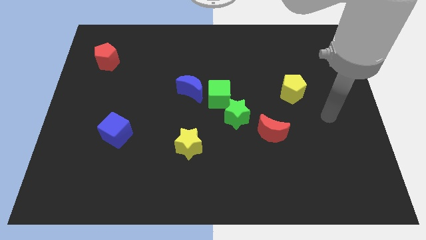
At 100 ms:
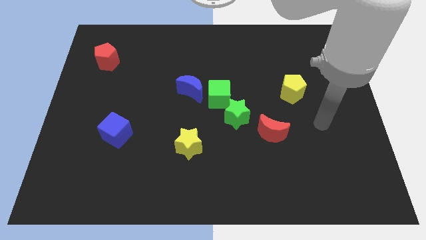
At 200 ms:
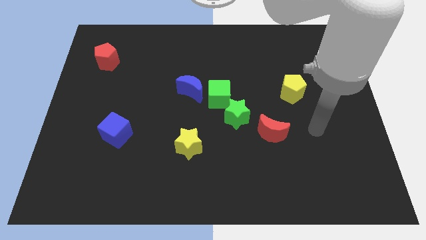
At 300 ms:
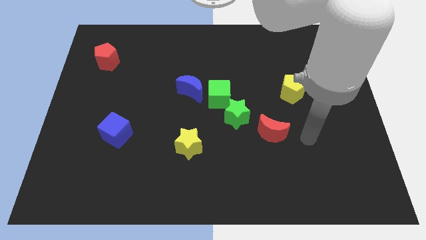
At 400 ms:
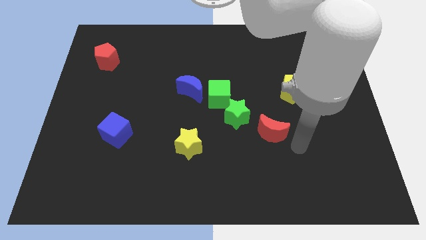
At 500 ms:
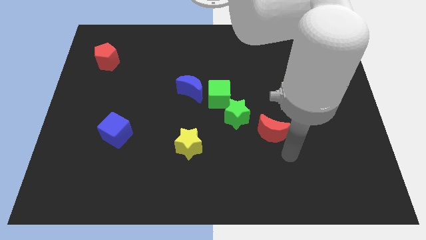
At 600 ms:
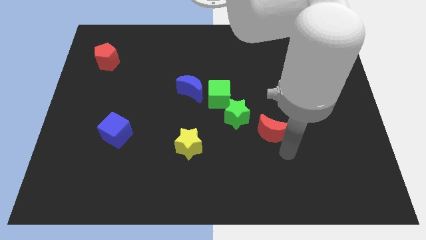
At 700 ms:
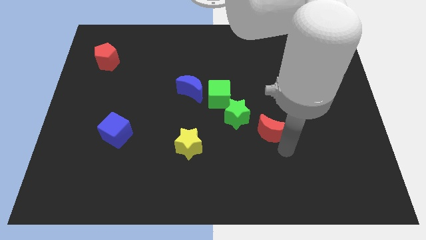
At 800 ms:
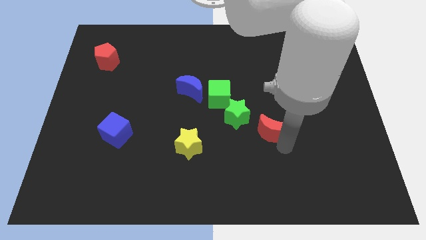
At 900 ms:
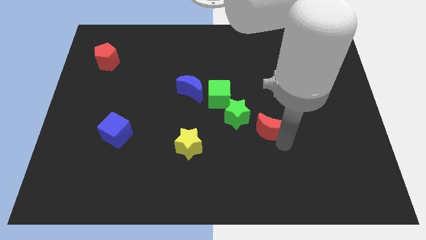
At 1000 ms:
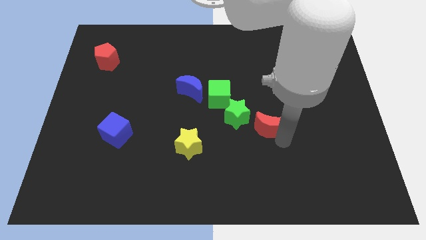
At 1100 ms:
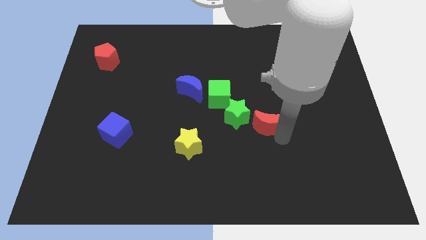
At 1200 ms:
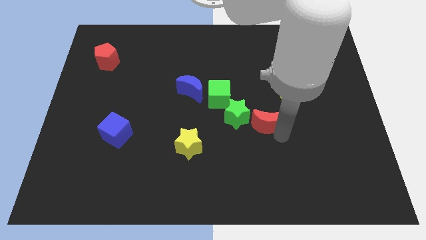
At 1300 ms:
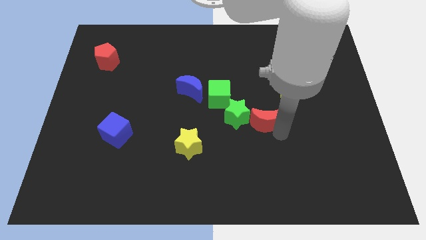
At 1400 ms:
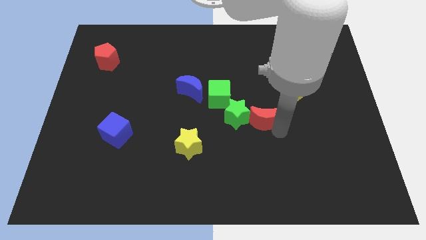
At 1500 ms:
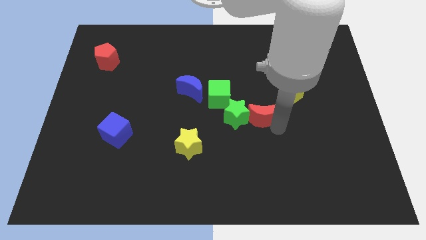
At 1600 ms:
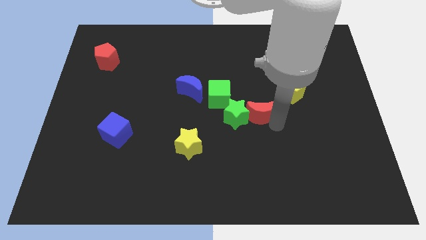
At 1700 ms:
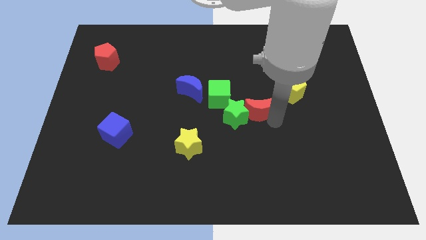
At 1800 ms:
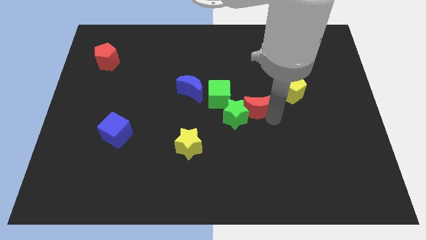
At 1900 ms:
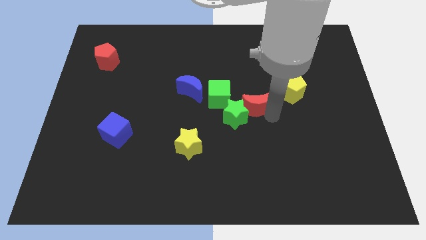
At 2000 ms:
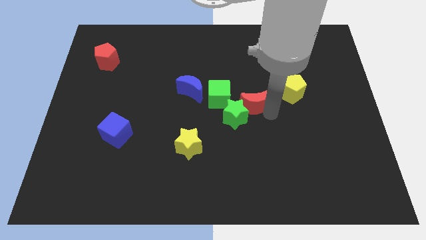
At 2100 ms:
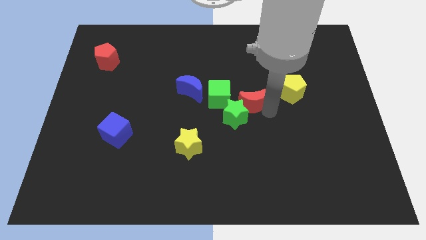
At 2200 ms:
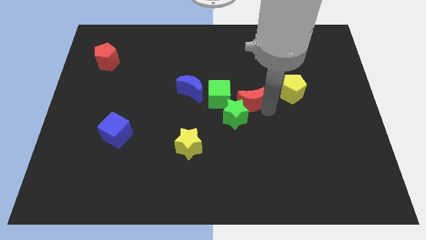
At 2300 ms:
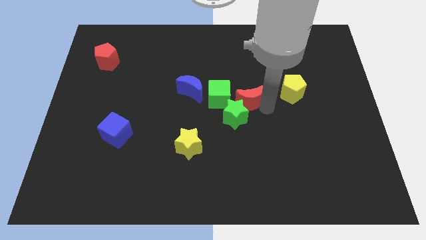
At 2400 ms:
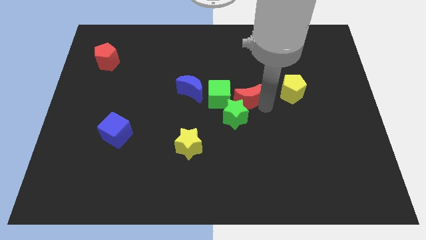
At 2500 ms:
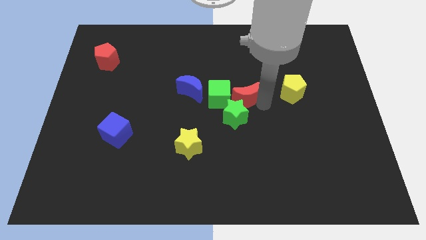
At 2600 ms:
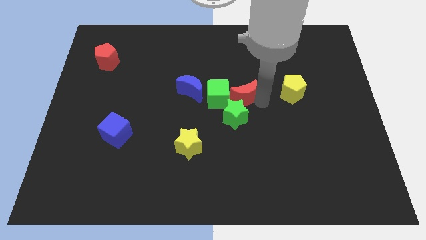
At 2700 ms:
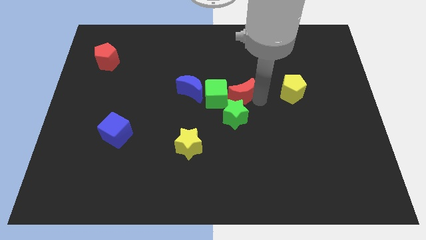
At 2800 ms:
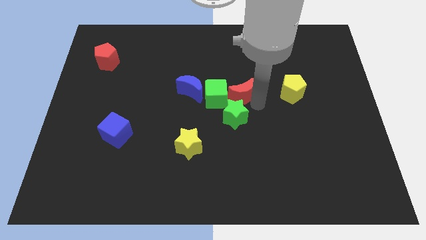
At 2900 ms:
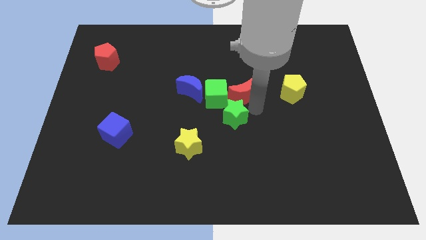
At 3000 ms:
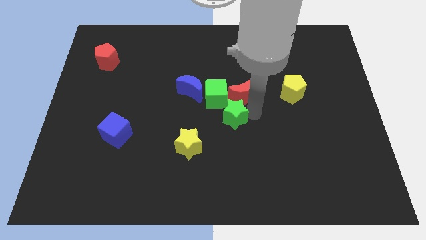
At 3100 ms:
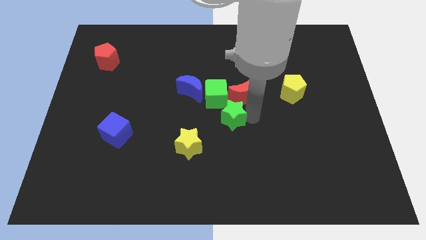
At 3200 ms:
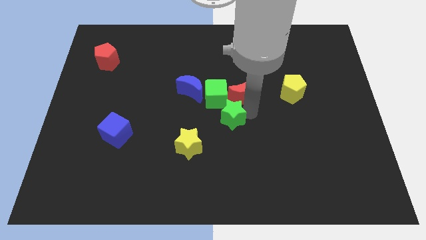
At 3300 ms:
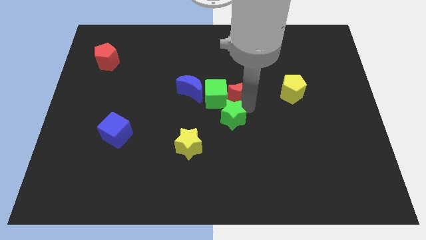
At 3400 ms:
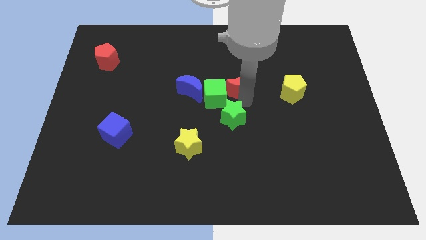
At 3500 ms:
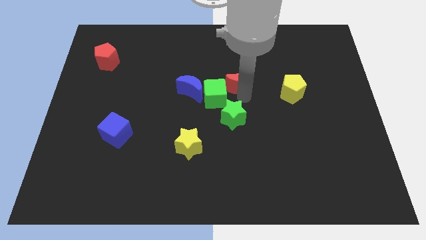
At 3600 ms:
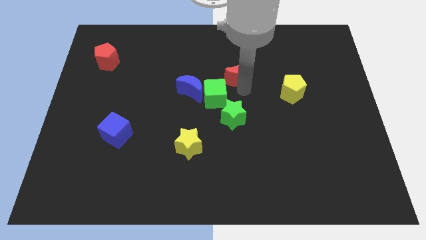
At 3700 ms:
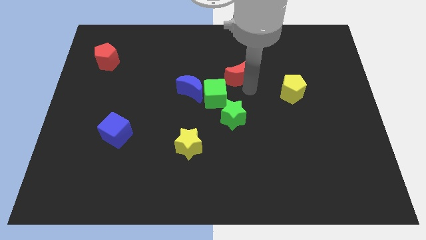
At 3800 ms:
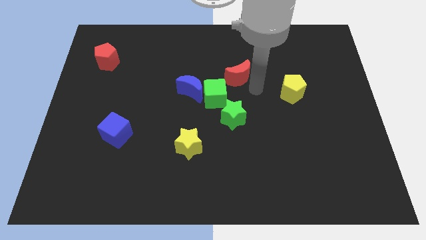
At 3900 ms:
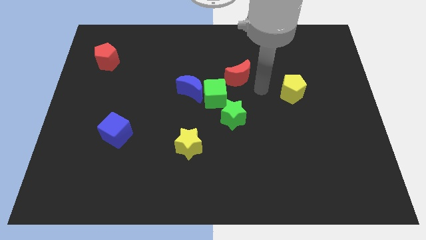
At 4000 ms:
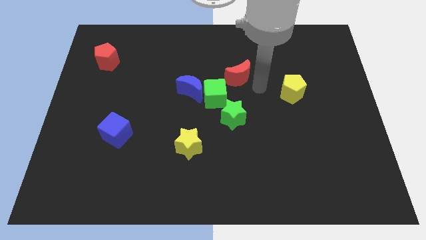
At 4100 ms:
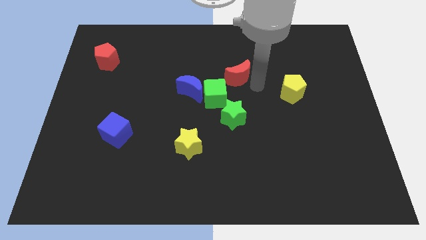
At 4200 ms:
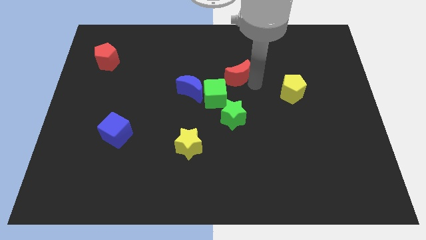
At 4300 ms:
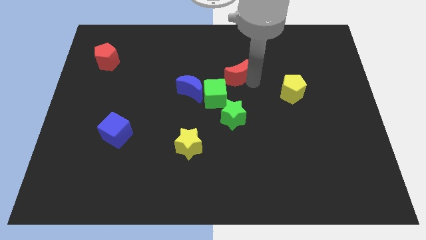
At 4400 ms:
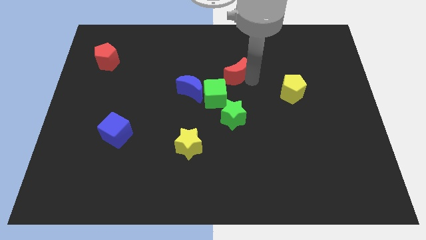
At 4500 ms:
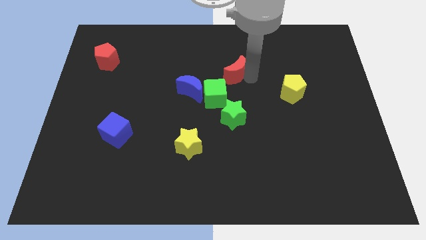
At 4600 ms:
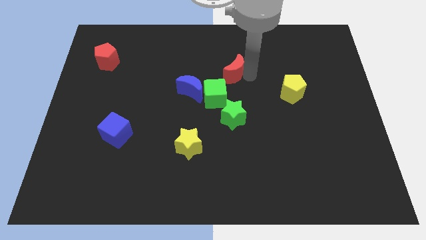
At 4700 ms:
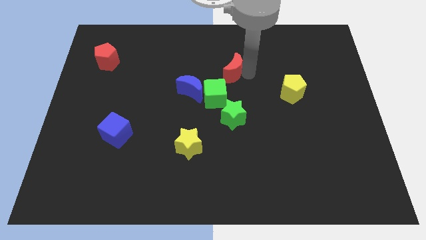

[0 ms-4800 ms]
push the red moon above the green cube

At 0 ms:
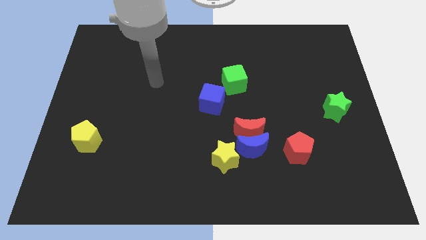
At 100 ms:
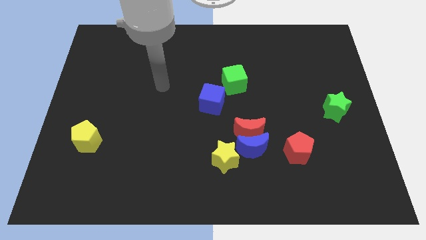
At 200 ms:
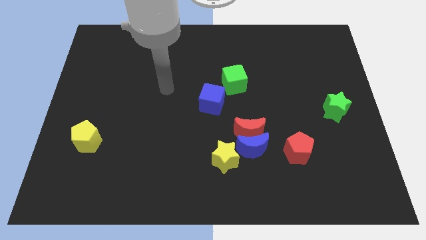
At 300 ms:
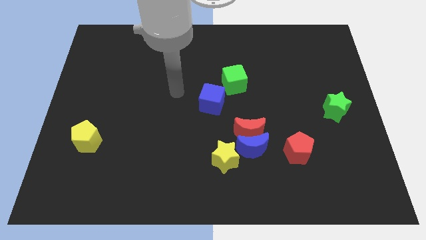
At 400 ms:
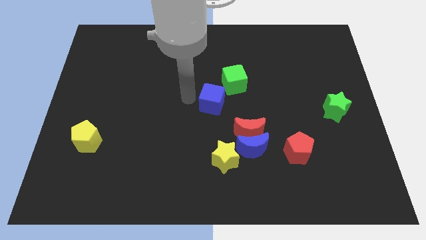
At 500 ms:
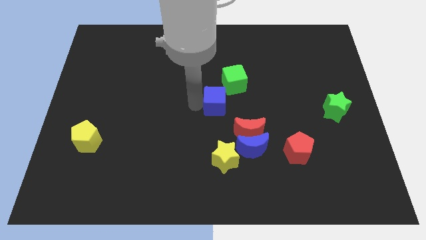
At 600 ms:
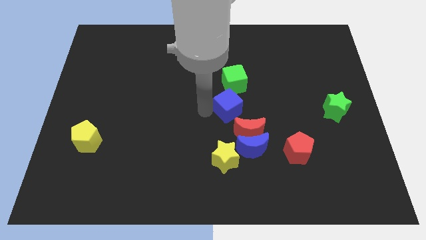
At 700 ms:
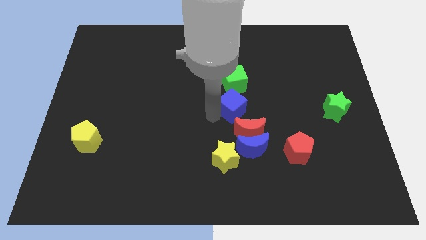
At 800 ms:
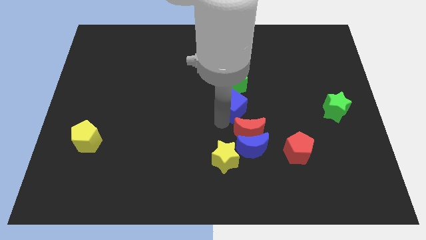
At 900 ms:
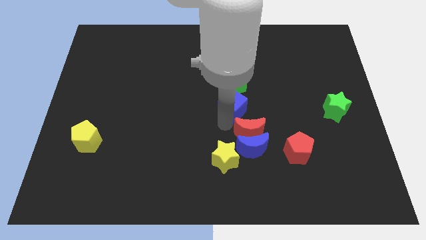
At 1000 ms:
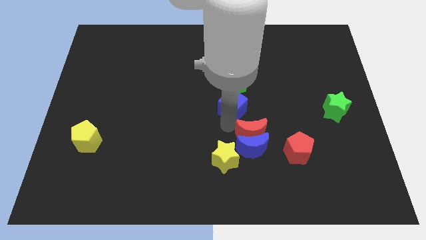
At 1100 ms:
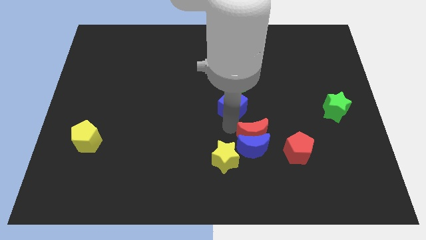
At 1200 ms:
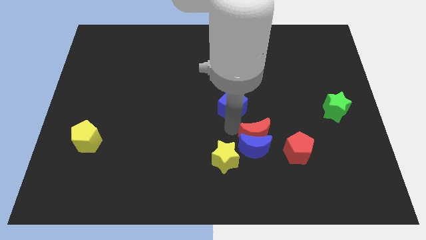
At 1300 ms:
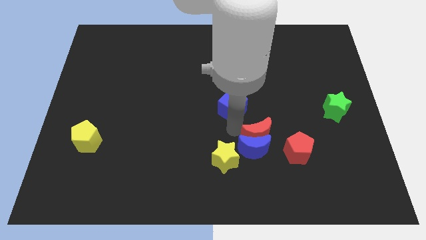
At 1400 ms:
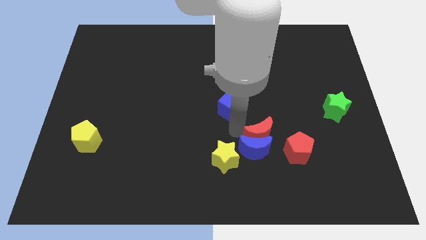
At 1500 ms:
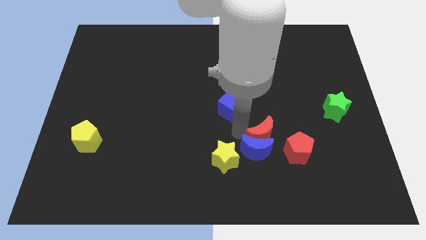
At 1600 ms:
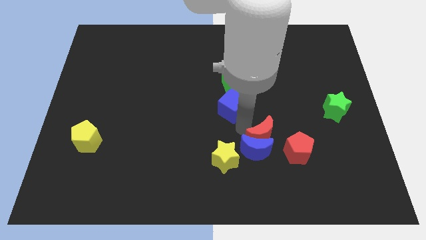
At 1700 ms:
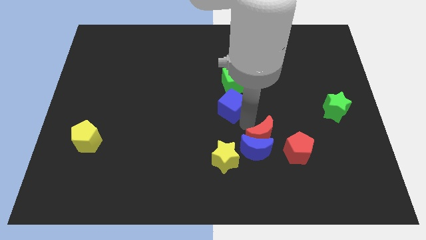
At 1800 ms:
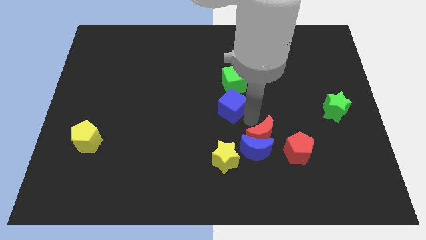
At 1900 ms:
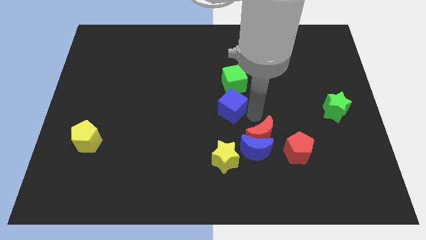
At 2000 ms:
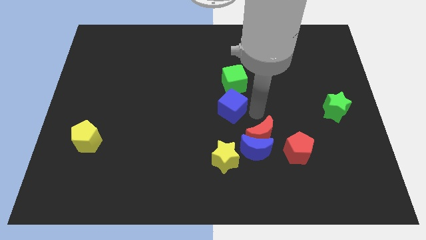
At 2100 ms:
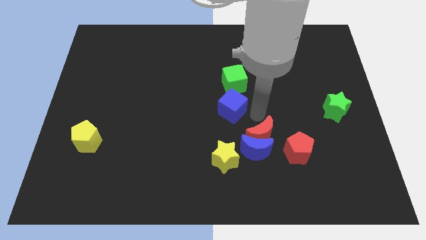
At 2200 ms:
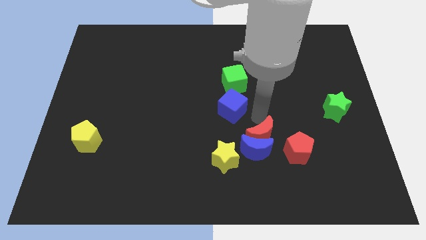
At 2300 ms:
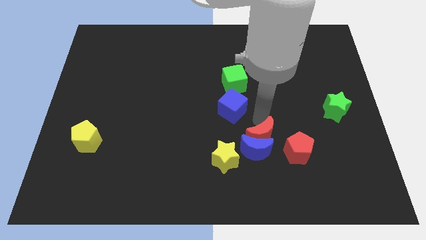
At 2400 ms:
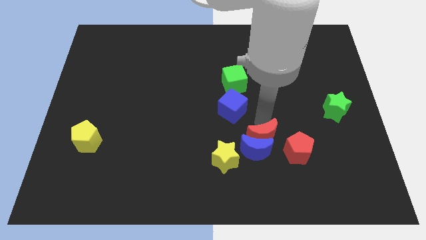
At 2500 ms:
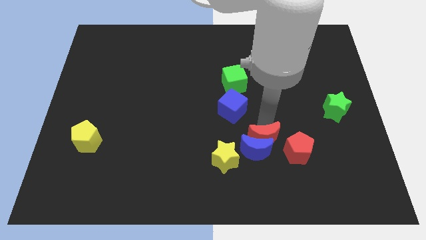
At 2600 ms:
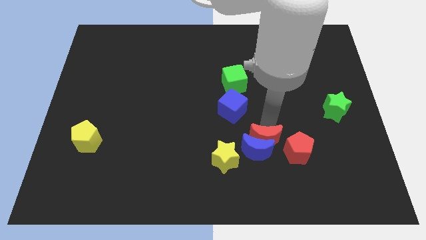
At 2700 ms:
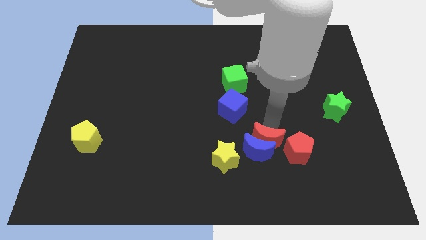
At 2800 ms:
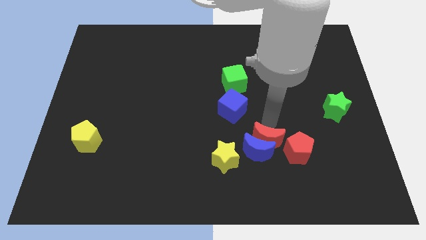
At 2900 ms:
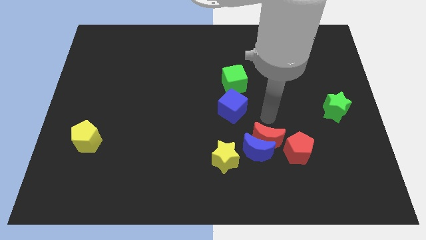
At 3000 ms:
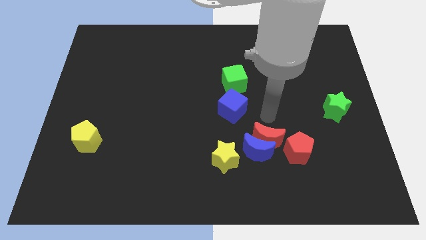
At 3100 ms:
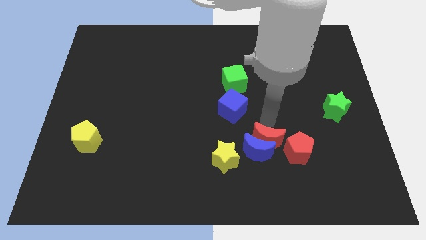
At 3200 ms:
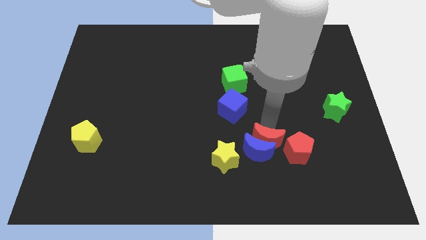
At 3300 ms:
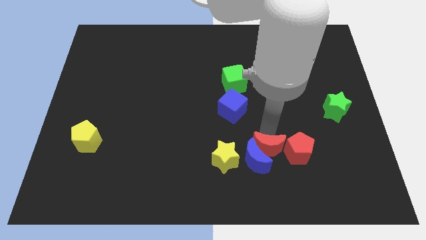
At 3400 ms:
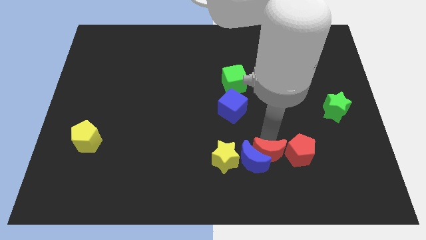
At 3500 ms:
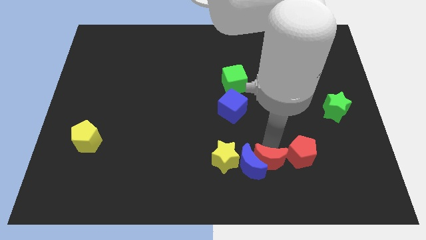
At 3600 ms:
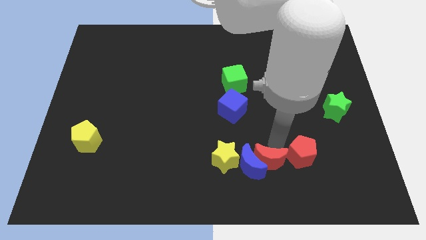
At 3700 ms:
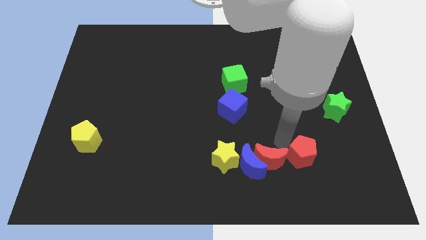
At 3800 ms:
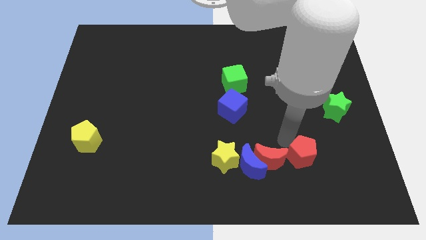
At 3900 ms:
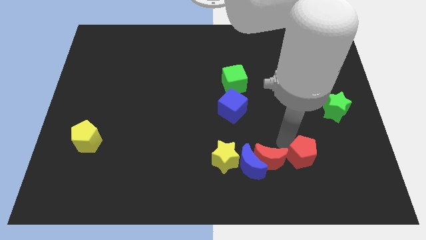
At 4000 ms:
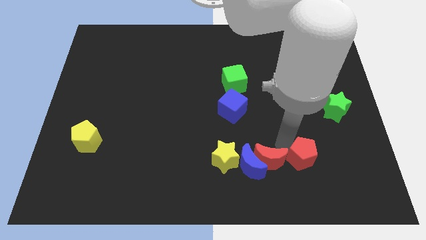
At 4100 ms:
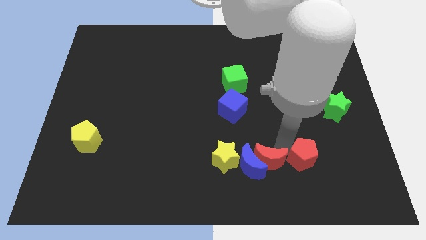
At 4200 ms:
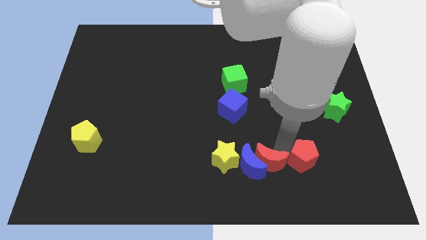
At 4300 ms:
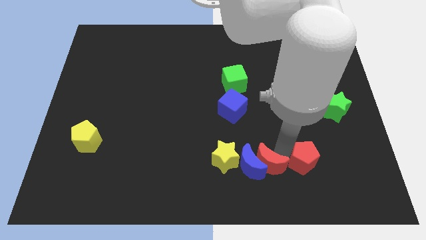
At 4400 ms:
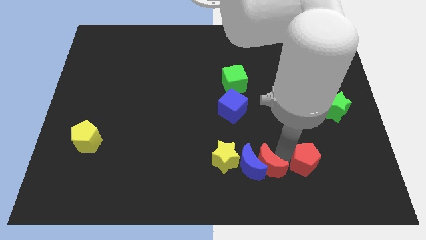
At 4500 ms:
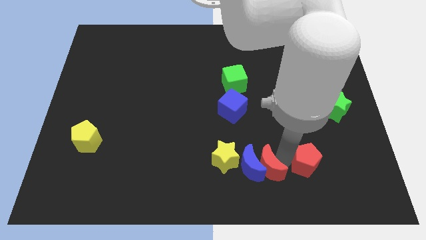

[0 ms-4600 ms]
slide the red moon to the bottom right of the yellow star
